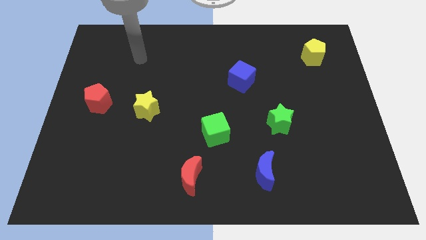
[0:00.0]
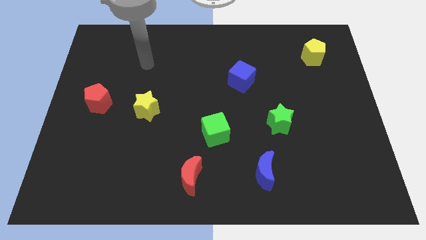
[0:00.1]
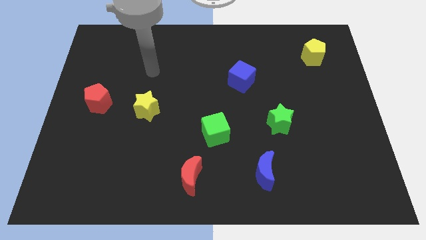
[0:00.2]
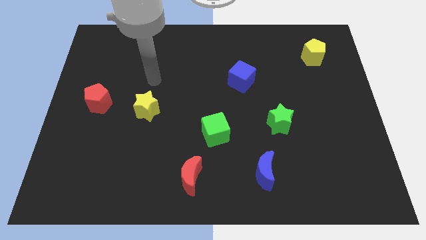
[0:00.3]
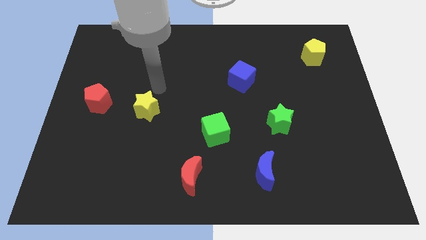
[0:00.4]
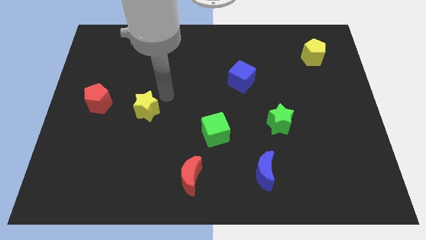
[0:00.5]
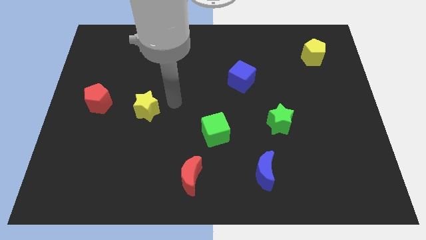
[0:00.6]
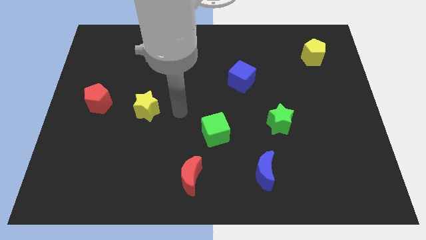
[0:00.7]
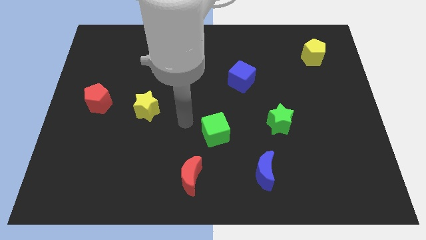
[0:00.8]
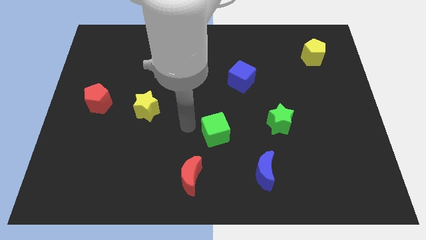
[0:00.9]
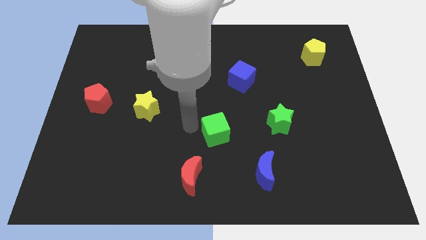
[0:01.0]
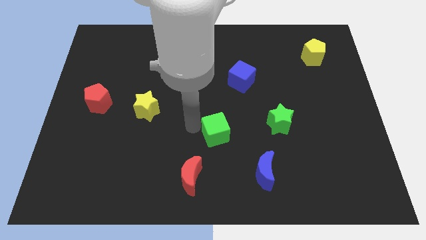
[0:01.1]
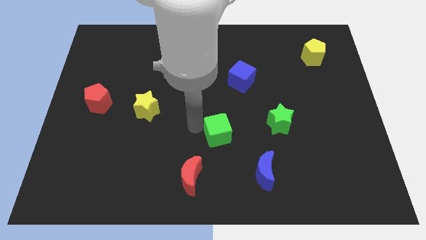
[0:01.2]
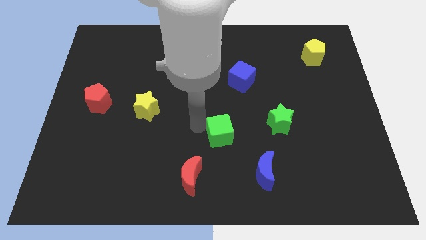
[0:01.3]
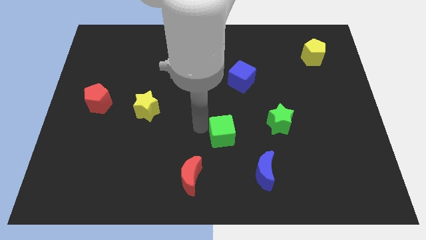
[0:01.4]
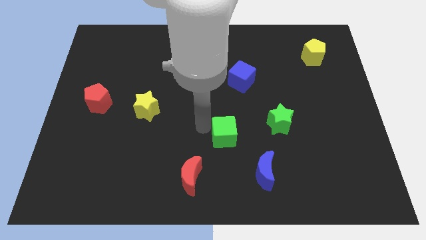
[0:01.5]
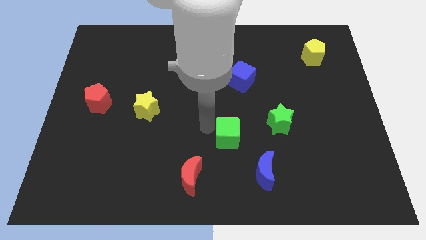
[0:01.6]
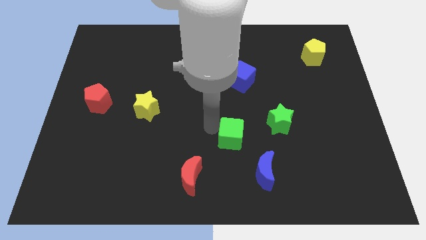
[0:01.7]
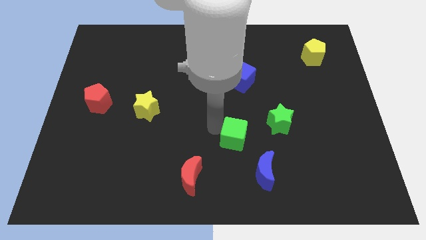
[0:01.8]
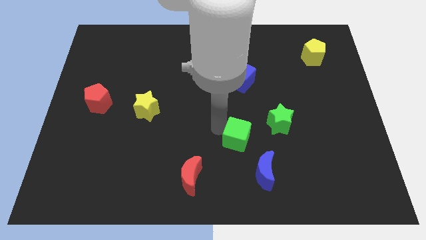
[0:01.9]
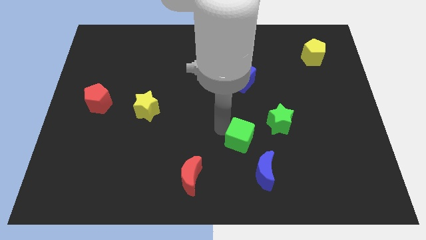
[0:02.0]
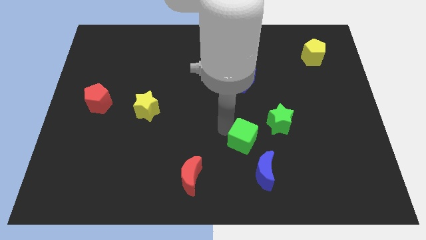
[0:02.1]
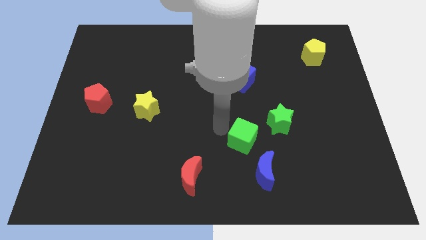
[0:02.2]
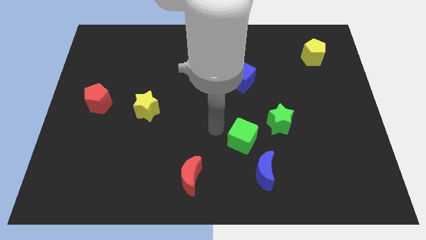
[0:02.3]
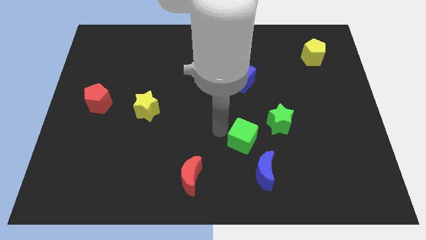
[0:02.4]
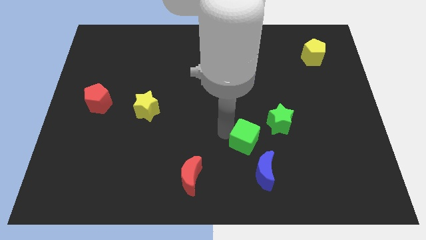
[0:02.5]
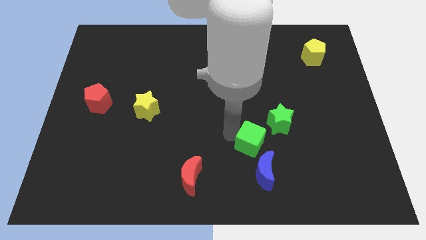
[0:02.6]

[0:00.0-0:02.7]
move the green cube slightly right

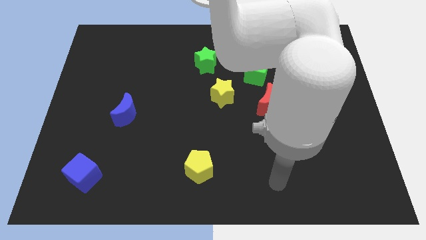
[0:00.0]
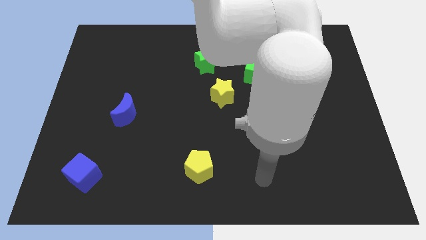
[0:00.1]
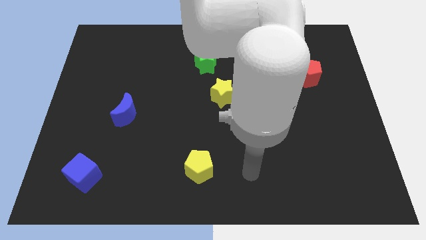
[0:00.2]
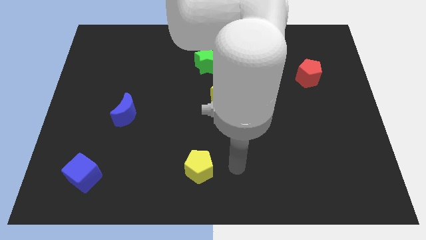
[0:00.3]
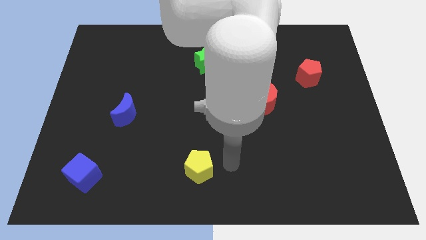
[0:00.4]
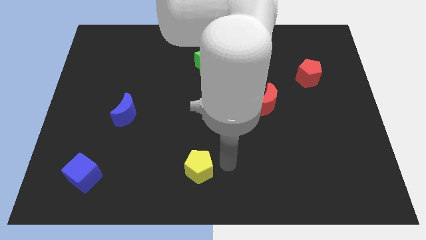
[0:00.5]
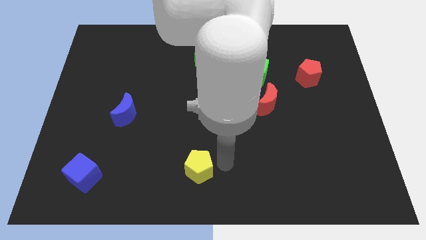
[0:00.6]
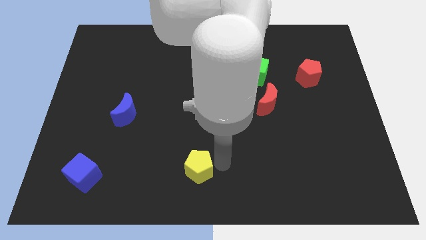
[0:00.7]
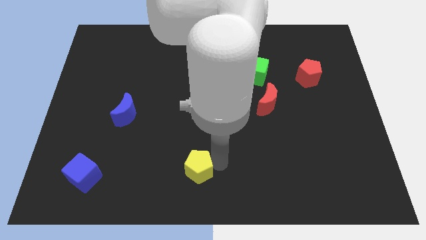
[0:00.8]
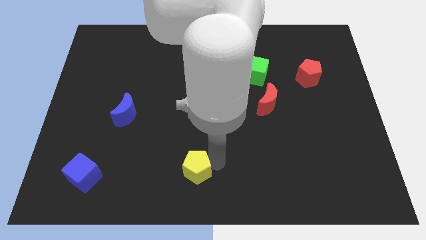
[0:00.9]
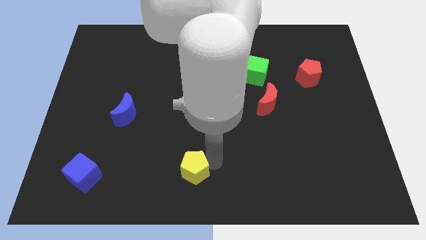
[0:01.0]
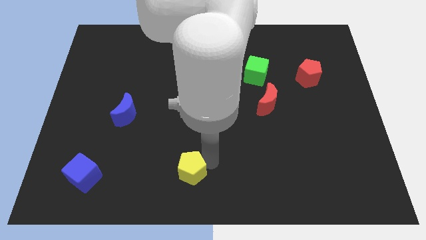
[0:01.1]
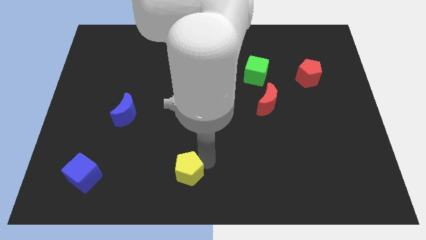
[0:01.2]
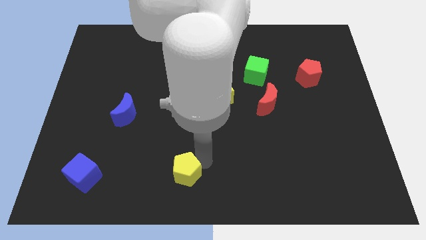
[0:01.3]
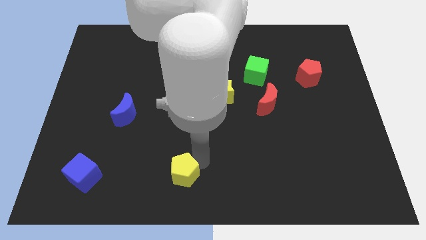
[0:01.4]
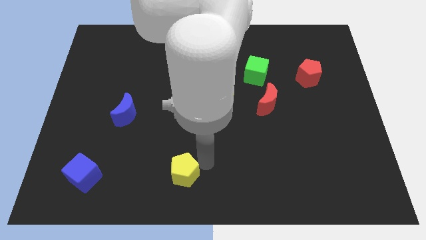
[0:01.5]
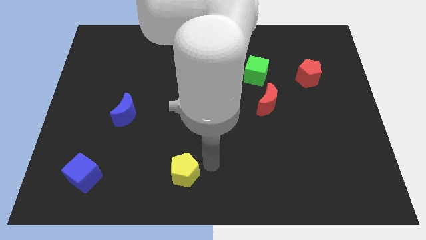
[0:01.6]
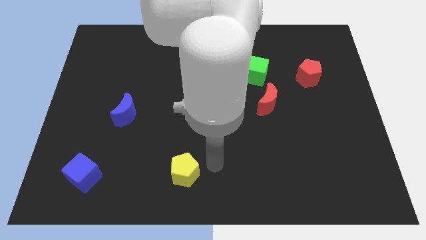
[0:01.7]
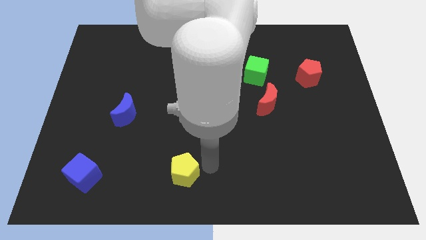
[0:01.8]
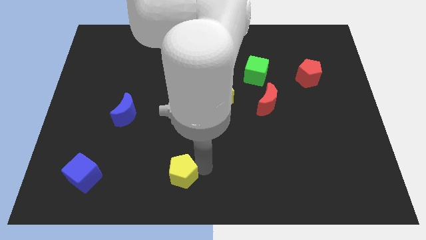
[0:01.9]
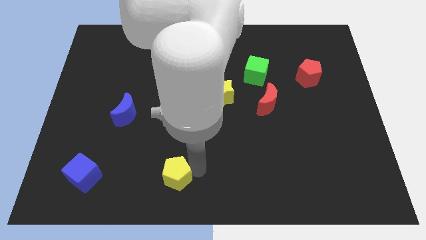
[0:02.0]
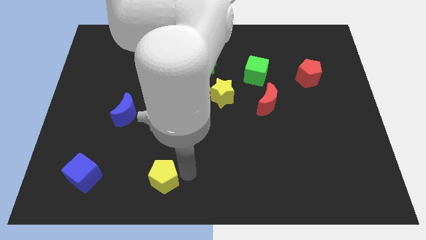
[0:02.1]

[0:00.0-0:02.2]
slide the yellow pentagon a bit to the left

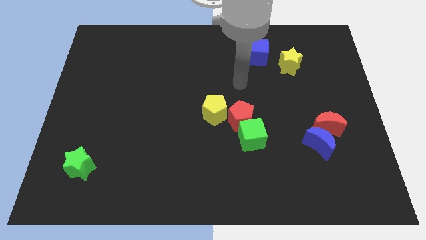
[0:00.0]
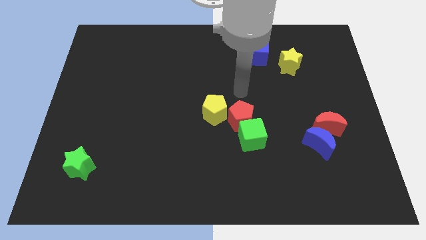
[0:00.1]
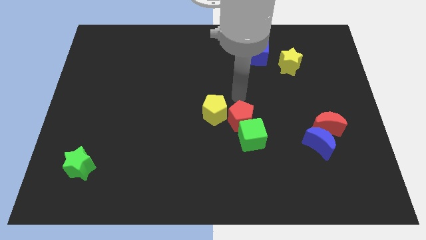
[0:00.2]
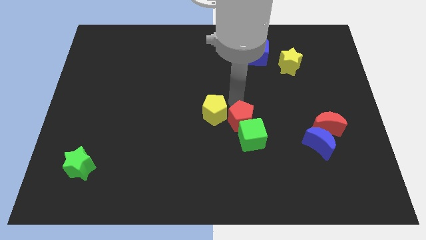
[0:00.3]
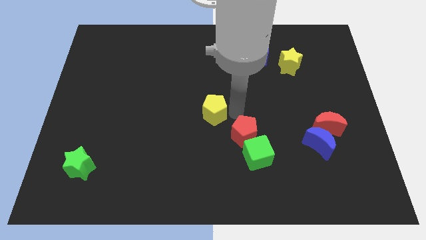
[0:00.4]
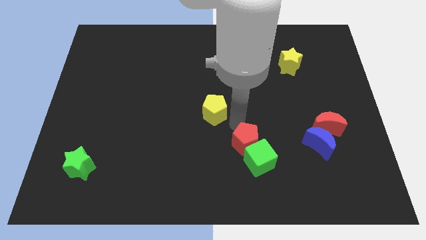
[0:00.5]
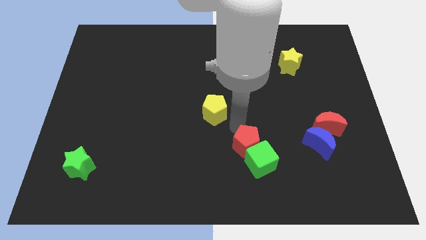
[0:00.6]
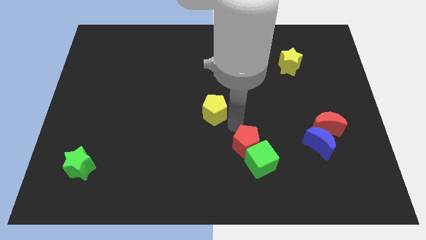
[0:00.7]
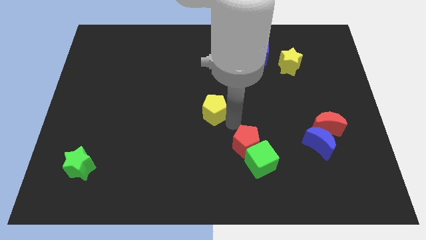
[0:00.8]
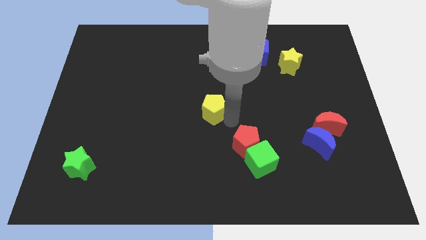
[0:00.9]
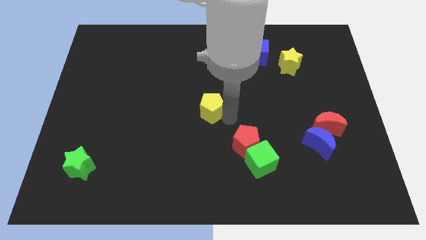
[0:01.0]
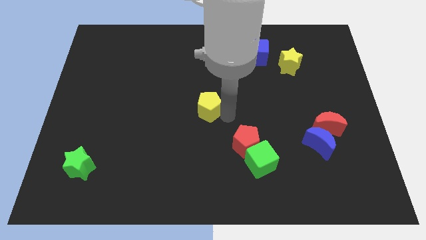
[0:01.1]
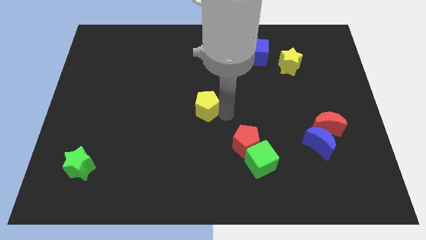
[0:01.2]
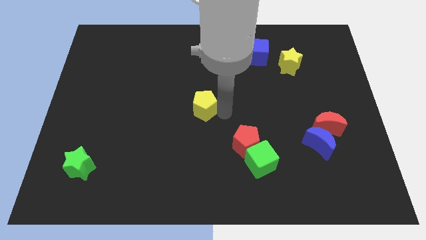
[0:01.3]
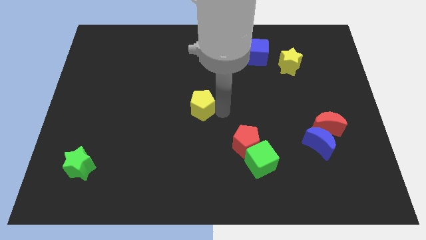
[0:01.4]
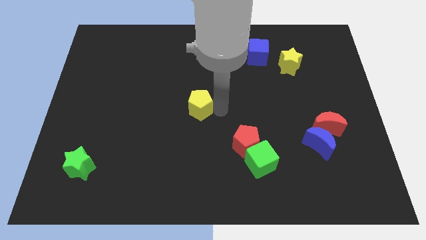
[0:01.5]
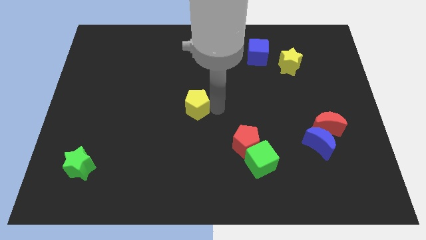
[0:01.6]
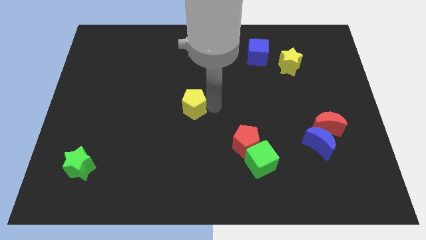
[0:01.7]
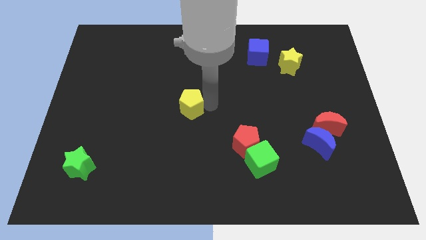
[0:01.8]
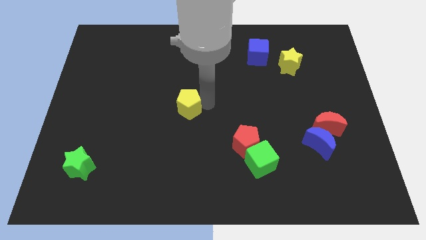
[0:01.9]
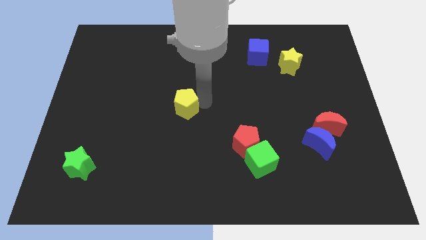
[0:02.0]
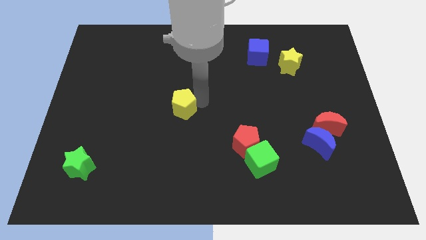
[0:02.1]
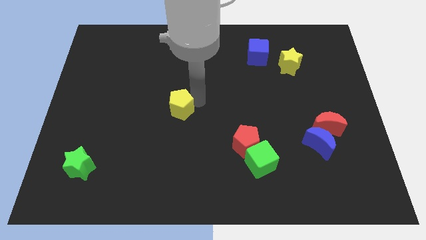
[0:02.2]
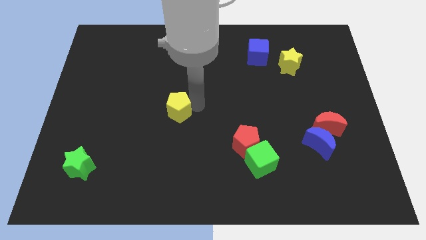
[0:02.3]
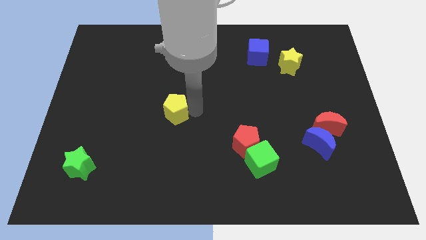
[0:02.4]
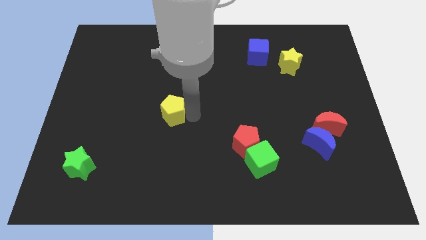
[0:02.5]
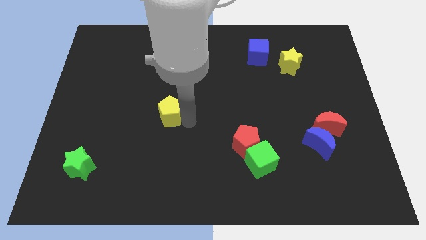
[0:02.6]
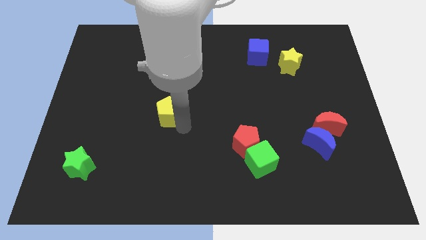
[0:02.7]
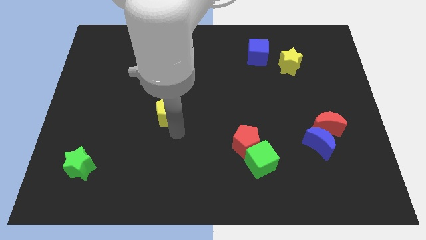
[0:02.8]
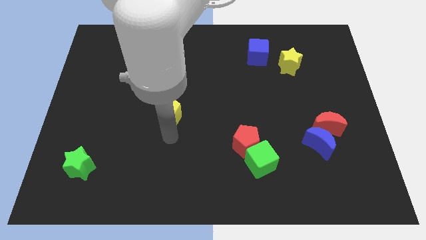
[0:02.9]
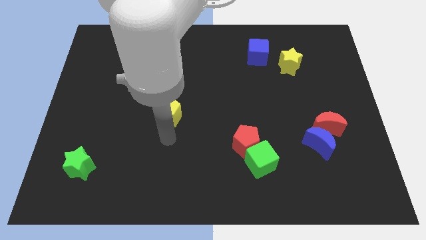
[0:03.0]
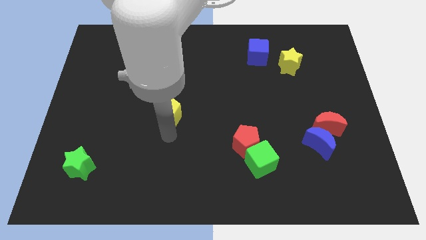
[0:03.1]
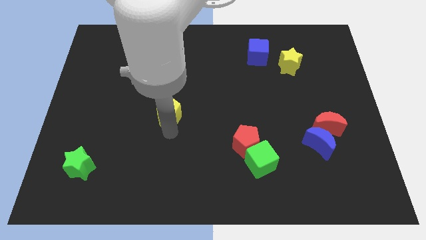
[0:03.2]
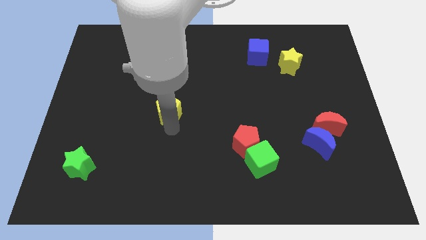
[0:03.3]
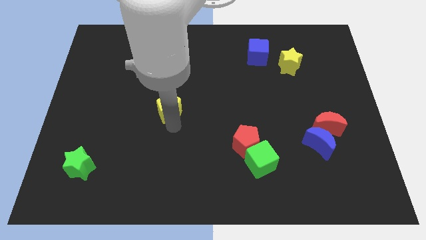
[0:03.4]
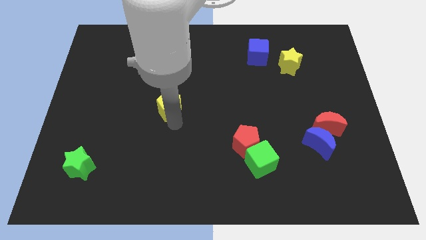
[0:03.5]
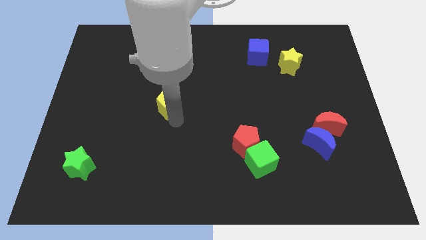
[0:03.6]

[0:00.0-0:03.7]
push the yellow pentagon upwards and to the left diagonally slightly
